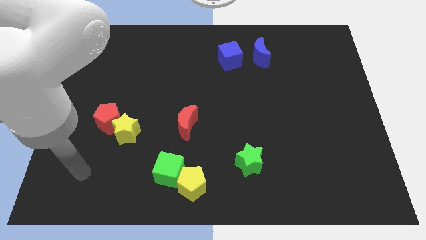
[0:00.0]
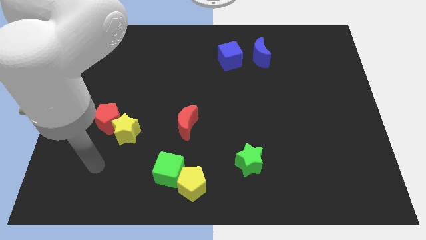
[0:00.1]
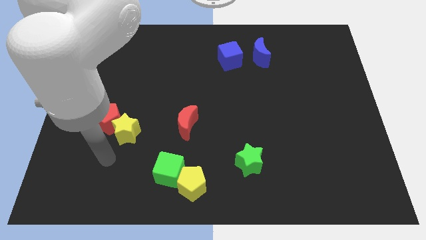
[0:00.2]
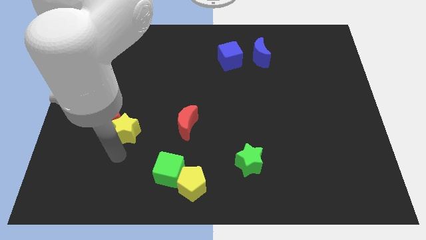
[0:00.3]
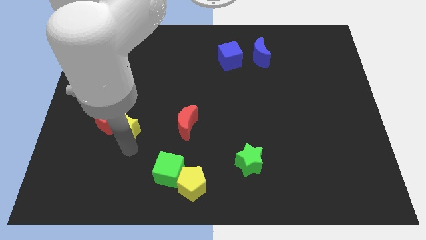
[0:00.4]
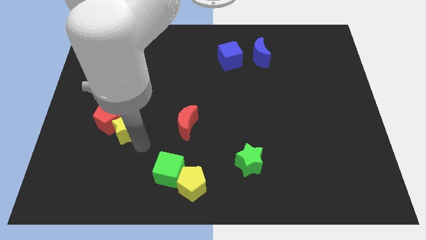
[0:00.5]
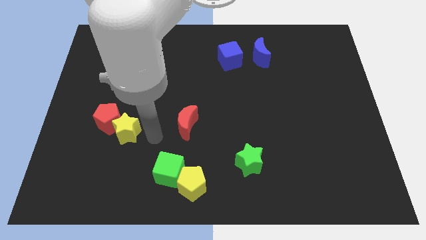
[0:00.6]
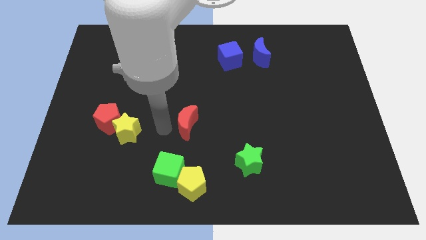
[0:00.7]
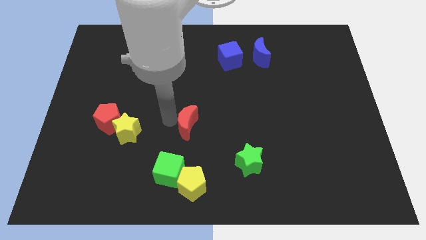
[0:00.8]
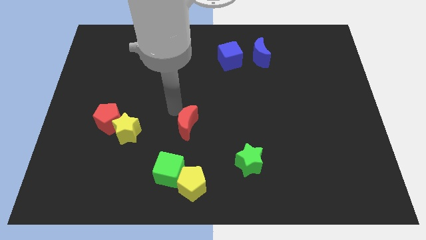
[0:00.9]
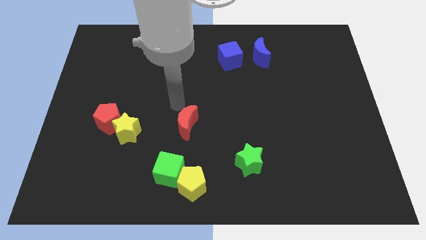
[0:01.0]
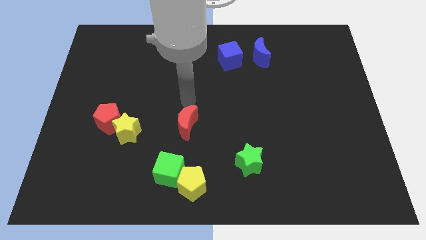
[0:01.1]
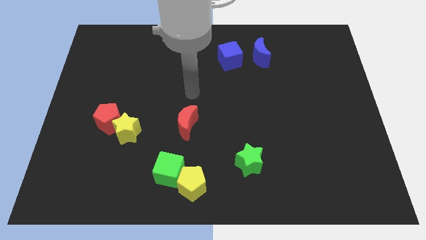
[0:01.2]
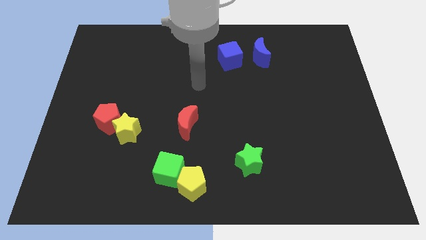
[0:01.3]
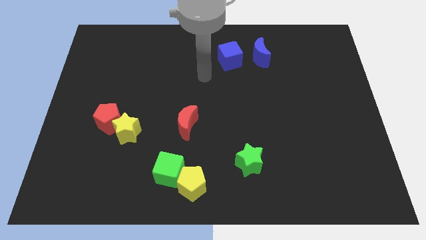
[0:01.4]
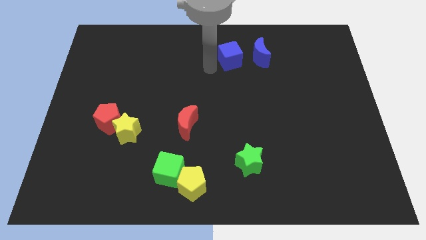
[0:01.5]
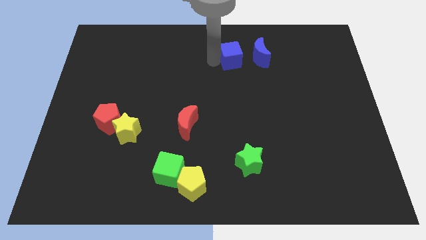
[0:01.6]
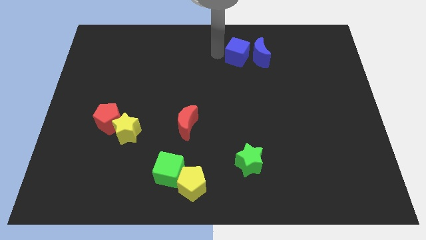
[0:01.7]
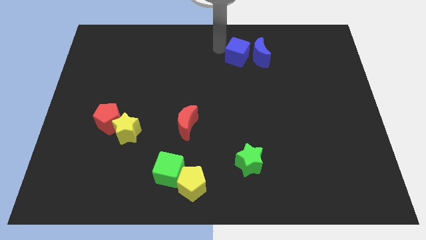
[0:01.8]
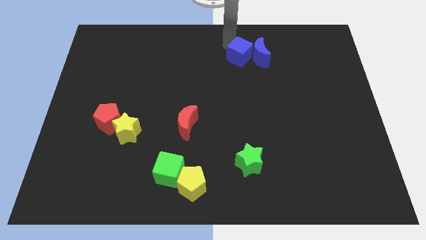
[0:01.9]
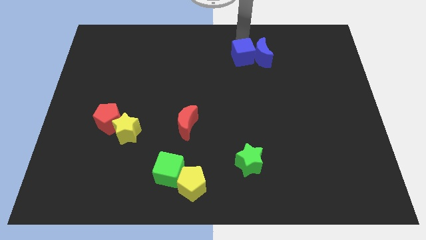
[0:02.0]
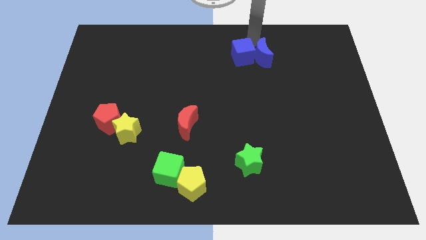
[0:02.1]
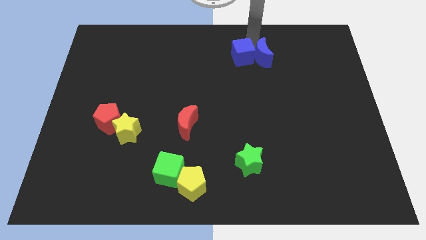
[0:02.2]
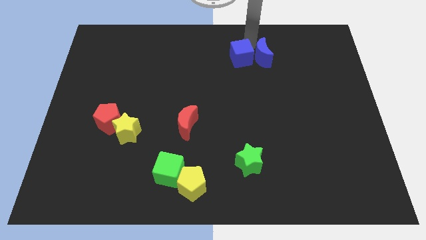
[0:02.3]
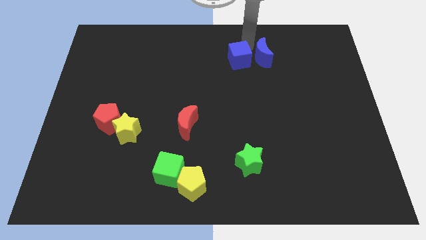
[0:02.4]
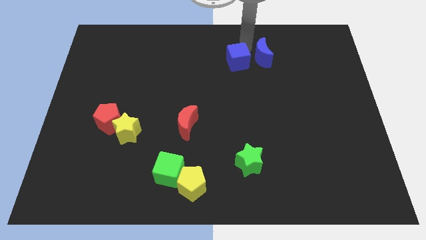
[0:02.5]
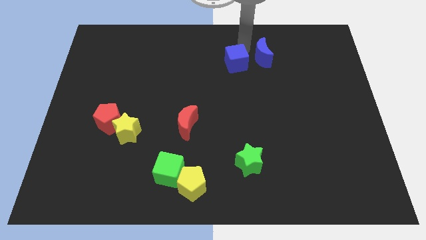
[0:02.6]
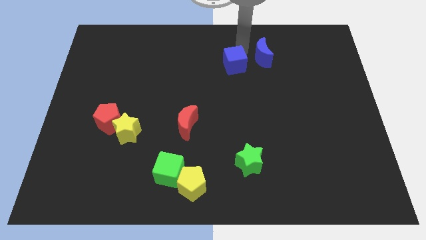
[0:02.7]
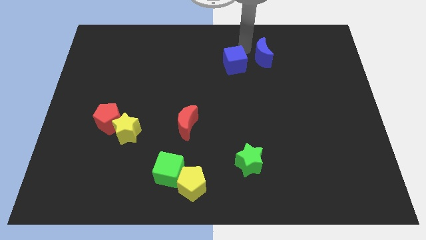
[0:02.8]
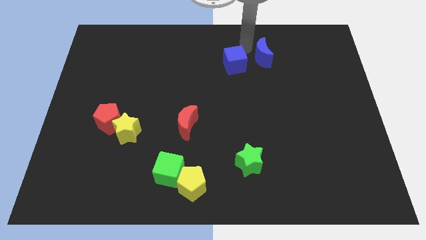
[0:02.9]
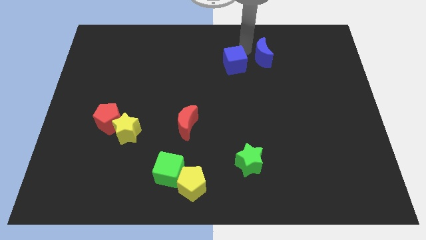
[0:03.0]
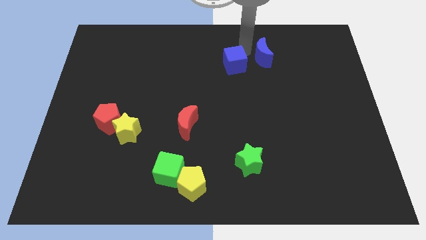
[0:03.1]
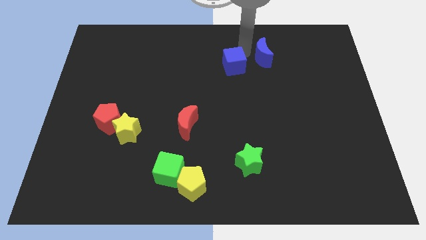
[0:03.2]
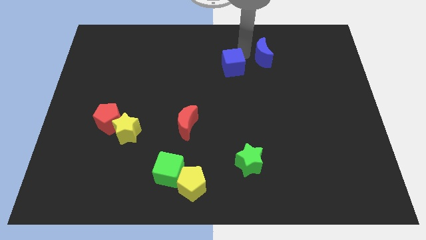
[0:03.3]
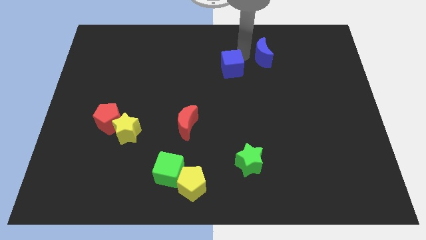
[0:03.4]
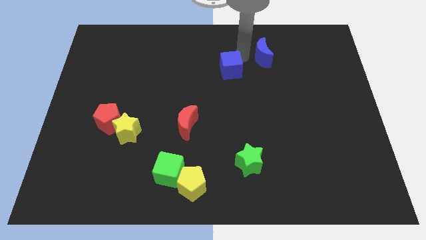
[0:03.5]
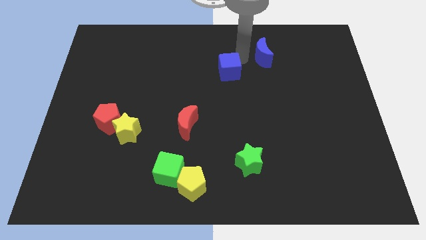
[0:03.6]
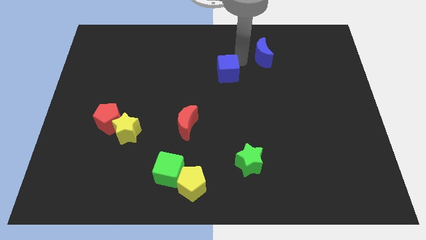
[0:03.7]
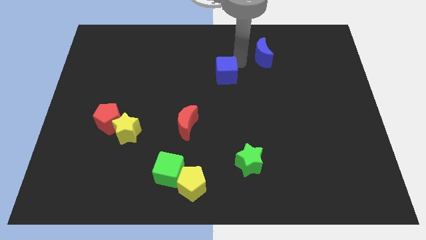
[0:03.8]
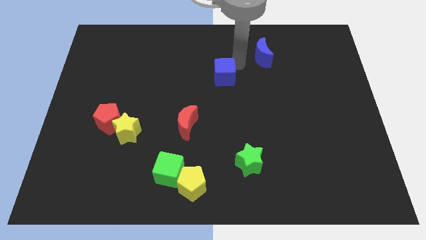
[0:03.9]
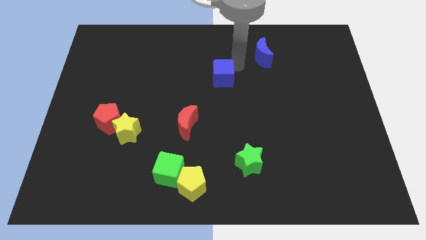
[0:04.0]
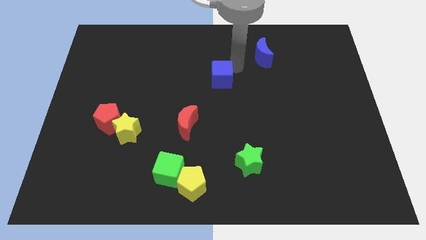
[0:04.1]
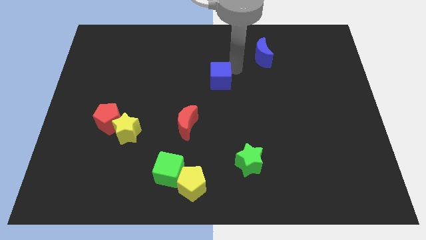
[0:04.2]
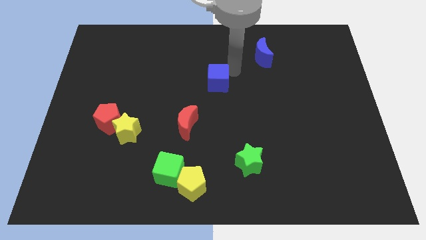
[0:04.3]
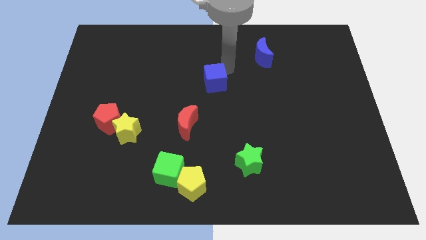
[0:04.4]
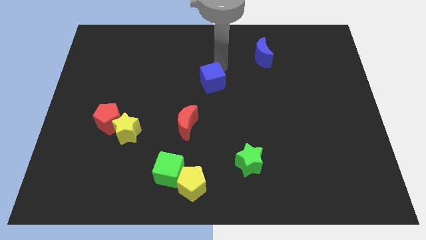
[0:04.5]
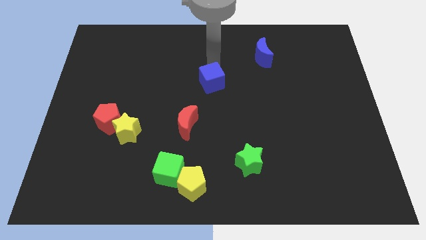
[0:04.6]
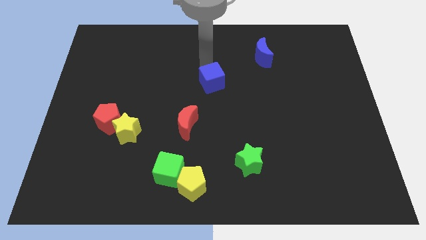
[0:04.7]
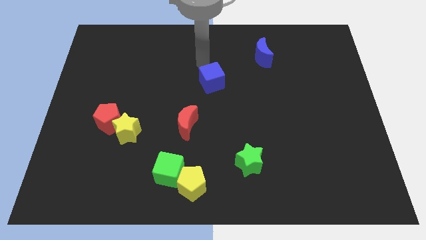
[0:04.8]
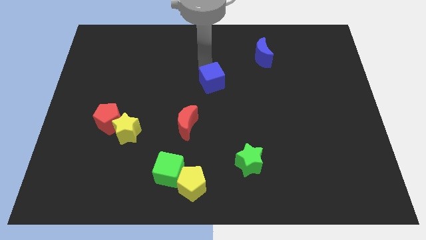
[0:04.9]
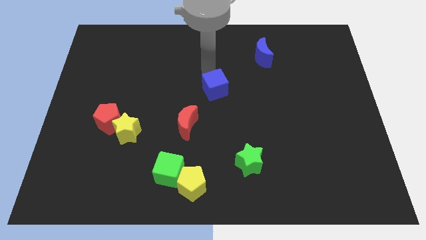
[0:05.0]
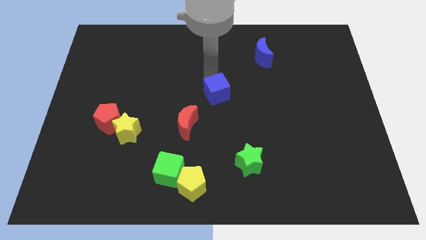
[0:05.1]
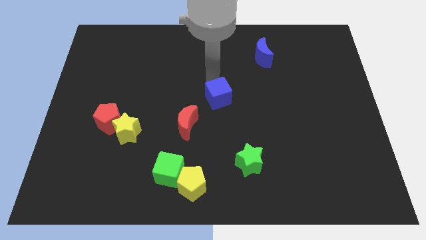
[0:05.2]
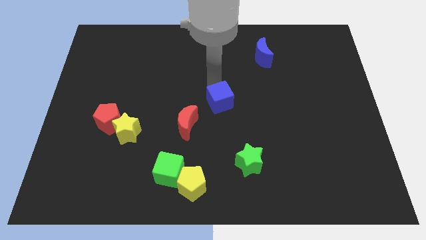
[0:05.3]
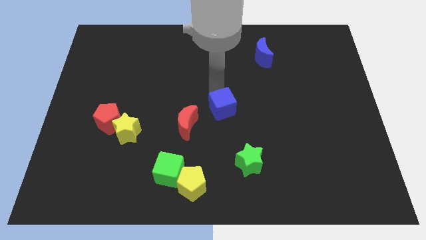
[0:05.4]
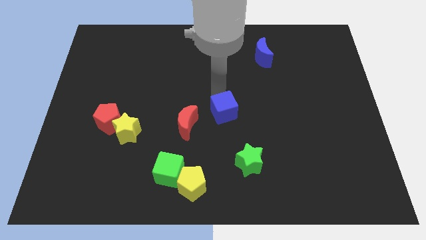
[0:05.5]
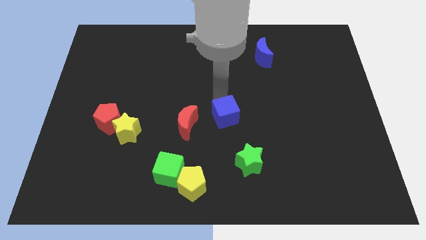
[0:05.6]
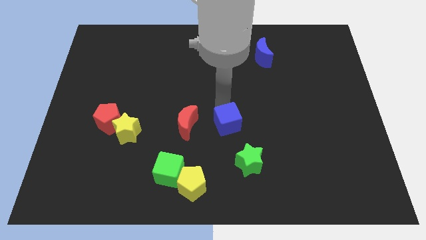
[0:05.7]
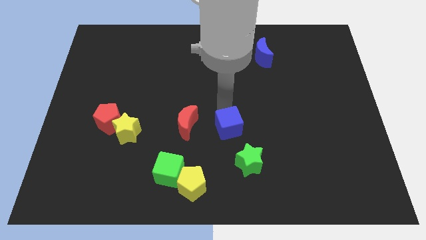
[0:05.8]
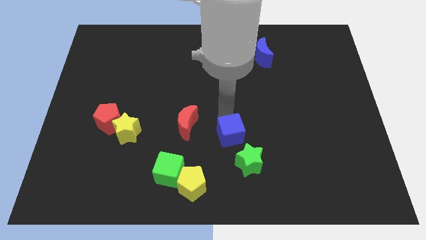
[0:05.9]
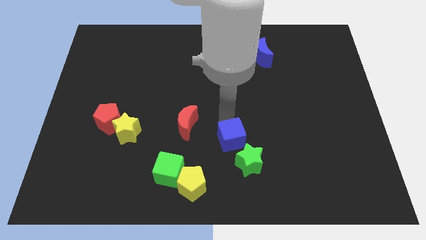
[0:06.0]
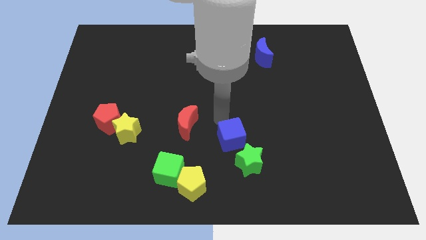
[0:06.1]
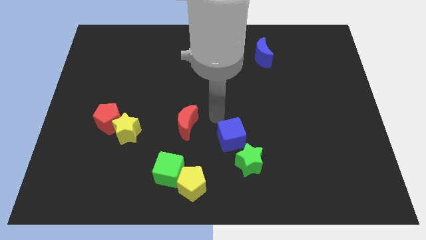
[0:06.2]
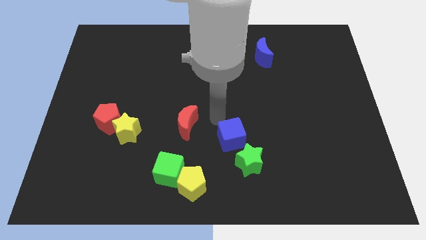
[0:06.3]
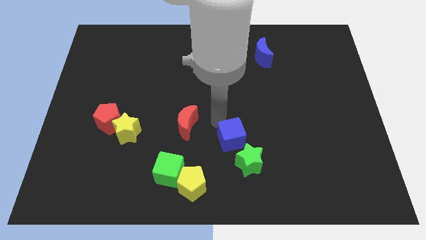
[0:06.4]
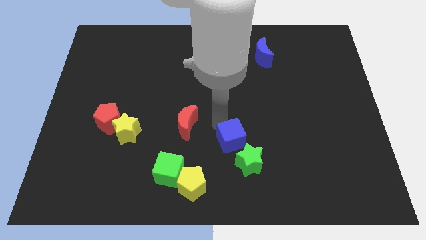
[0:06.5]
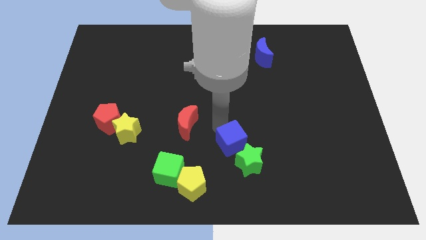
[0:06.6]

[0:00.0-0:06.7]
put the blue cube towards the green star
